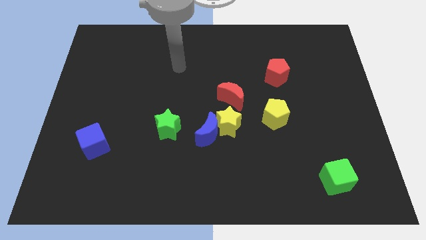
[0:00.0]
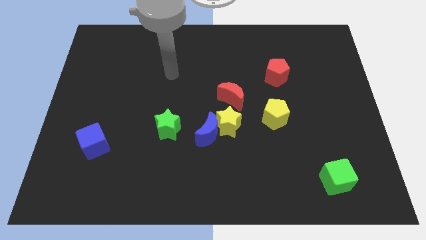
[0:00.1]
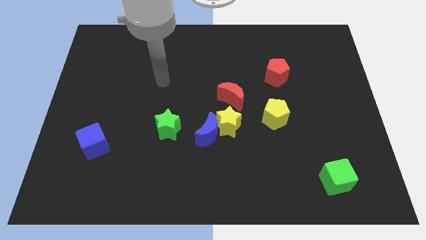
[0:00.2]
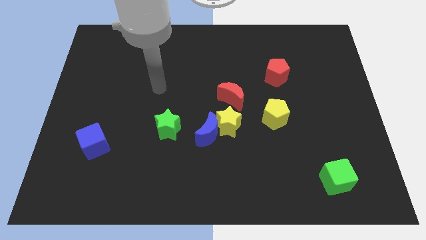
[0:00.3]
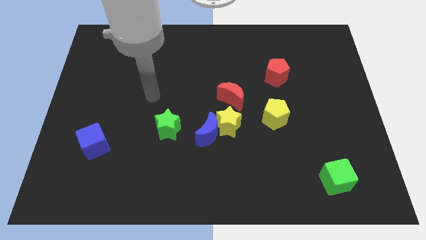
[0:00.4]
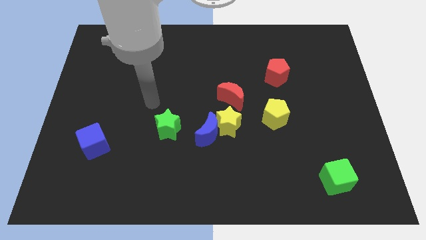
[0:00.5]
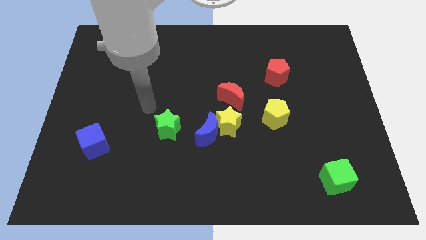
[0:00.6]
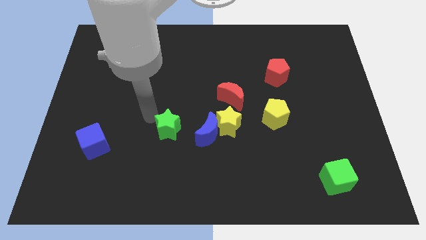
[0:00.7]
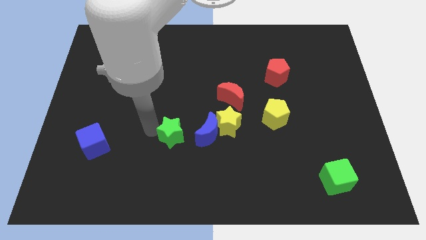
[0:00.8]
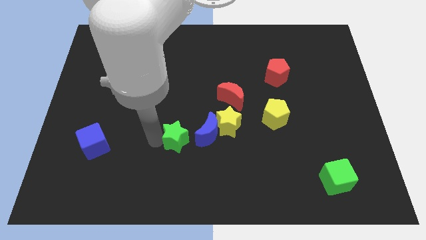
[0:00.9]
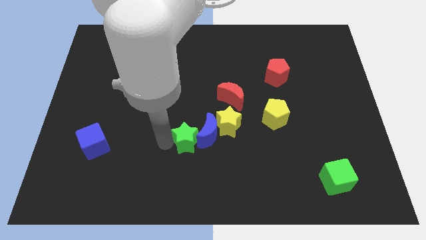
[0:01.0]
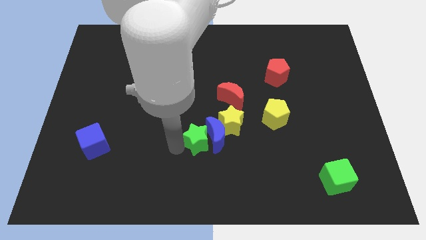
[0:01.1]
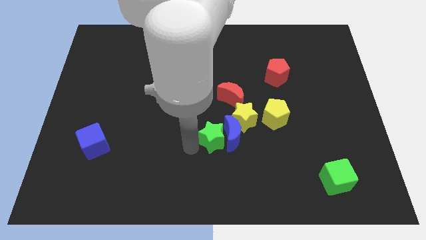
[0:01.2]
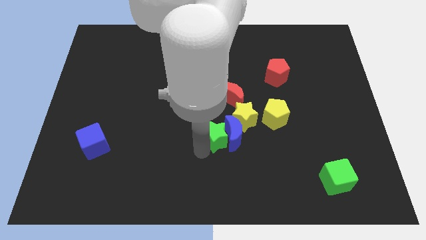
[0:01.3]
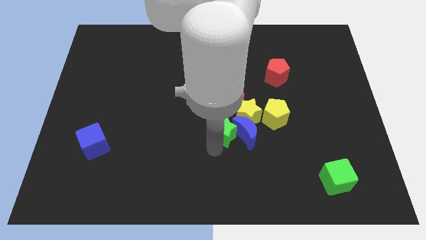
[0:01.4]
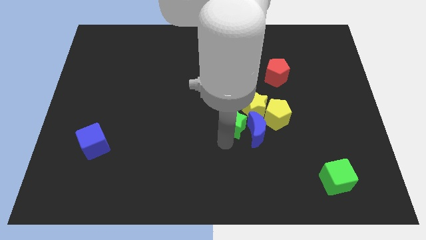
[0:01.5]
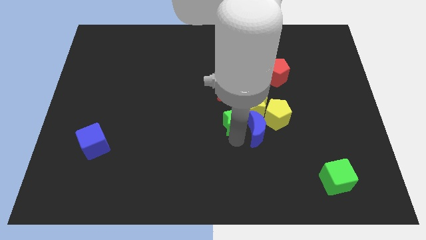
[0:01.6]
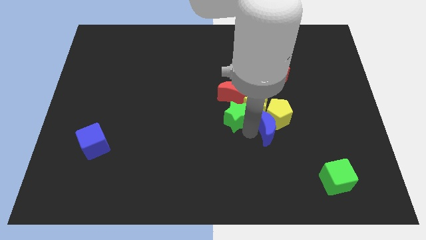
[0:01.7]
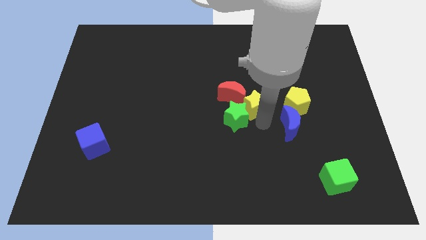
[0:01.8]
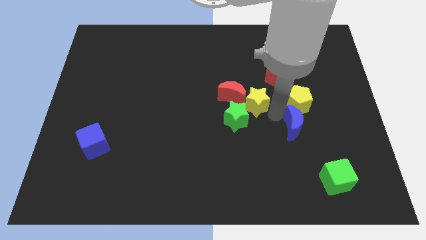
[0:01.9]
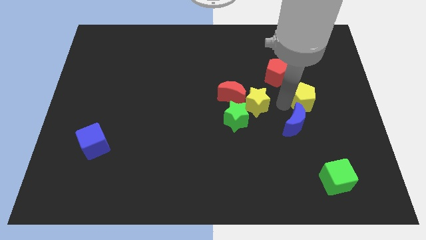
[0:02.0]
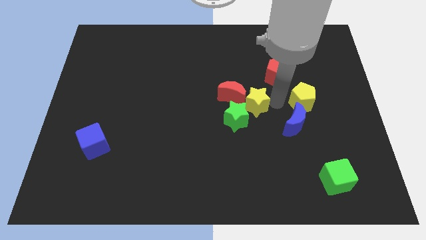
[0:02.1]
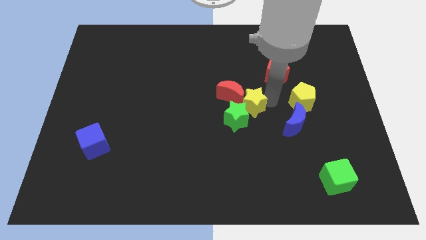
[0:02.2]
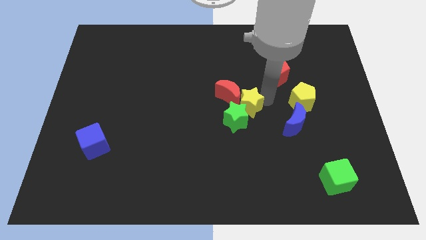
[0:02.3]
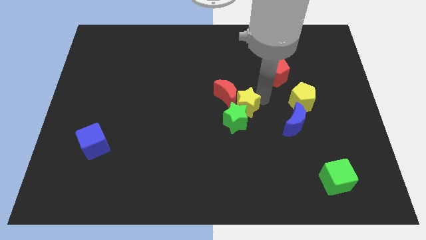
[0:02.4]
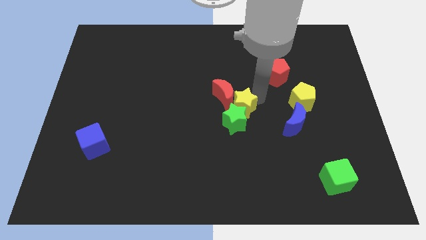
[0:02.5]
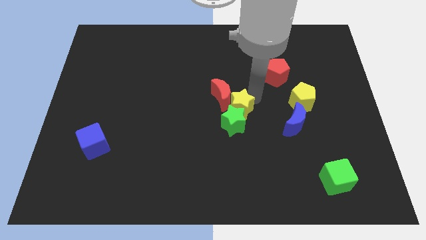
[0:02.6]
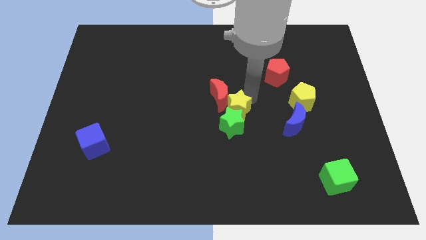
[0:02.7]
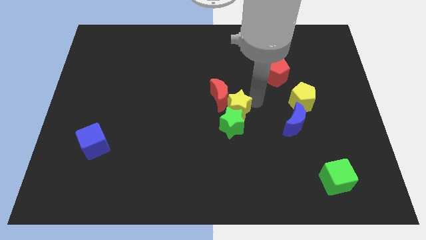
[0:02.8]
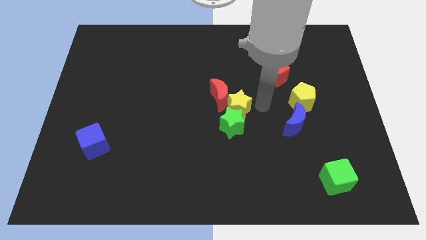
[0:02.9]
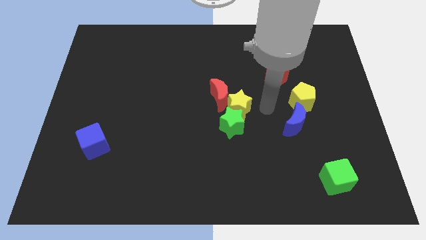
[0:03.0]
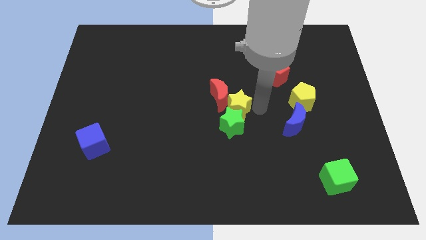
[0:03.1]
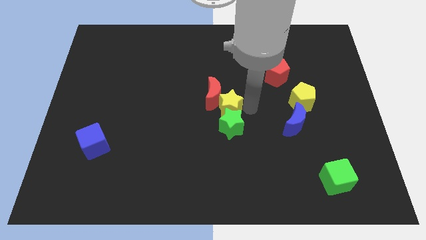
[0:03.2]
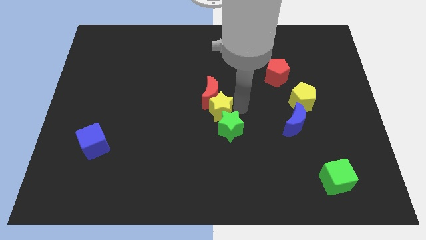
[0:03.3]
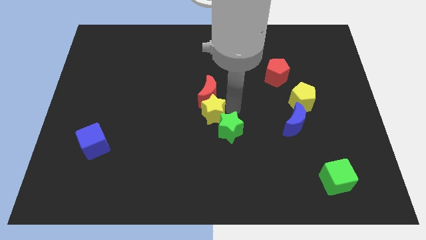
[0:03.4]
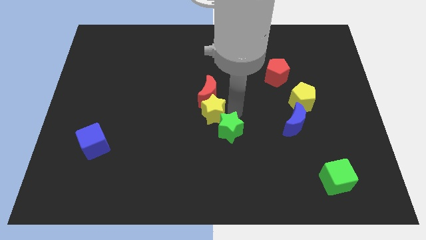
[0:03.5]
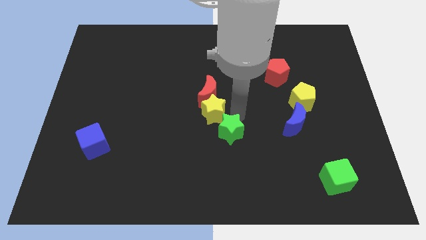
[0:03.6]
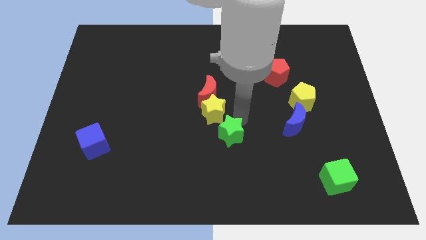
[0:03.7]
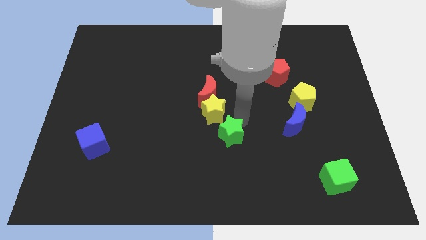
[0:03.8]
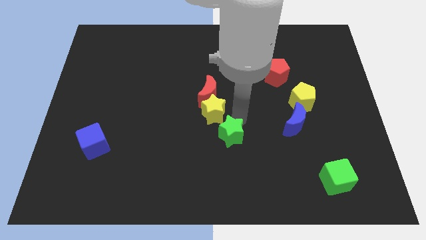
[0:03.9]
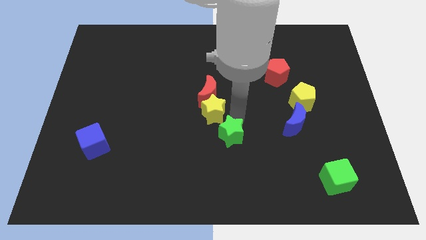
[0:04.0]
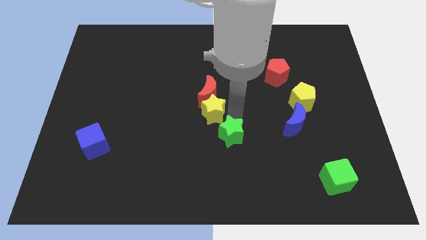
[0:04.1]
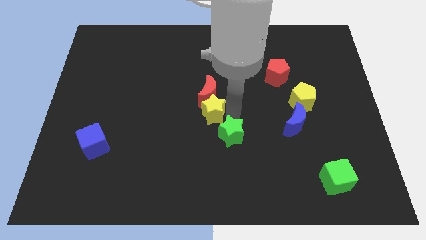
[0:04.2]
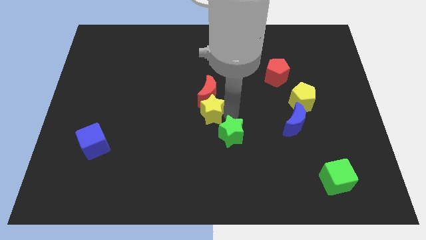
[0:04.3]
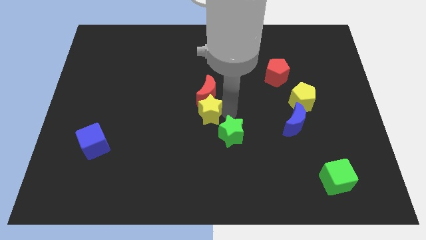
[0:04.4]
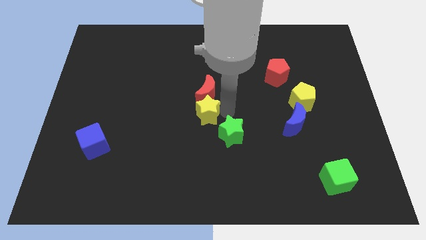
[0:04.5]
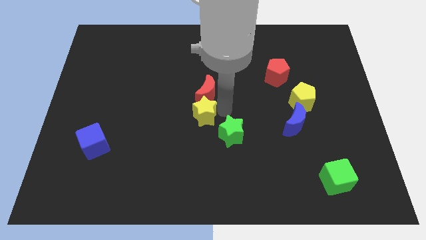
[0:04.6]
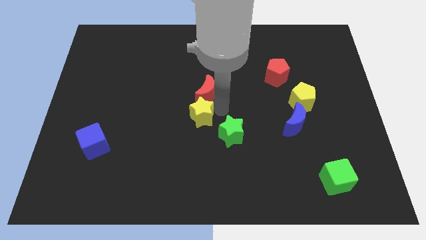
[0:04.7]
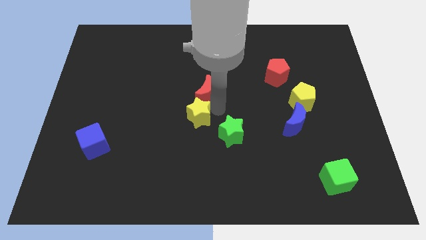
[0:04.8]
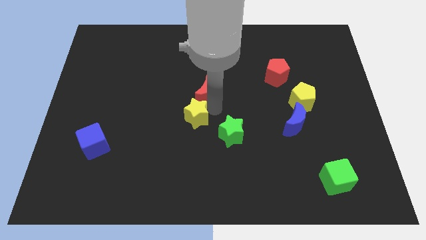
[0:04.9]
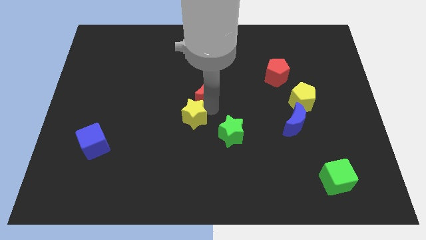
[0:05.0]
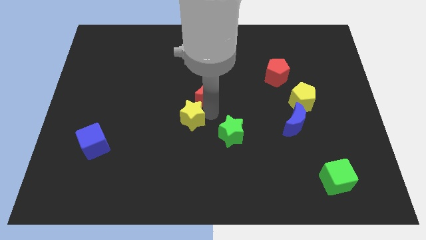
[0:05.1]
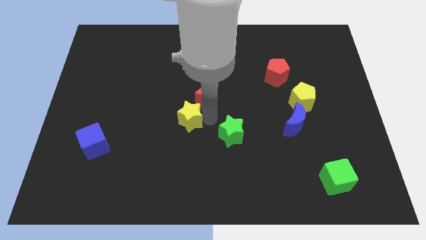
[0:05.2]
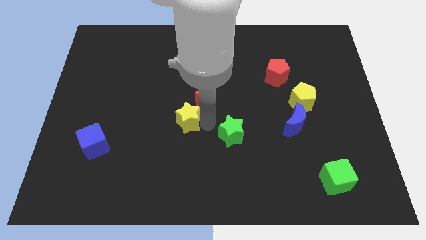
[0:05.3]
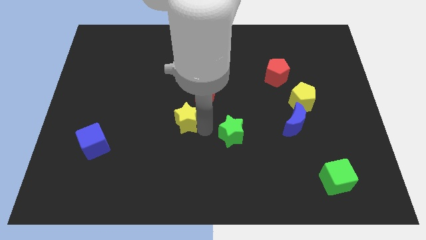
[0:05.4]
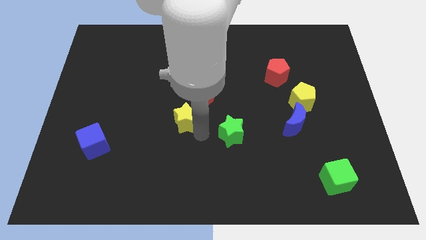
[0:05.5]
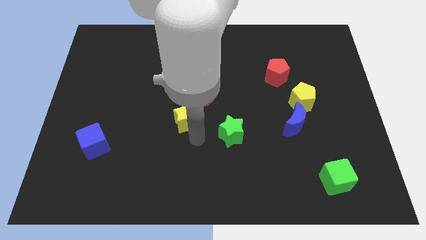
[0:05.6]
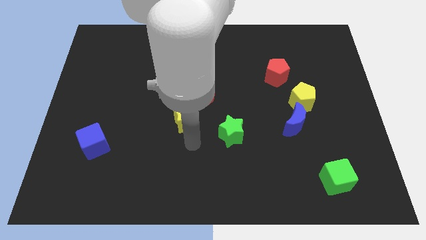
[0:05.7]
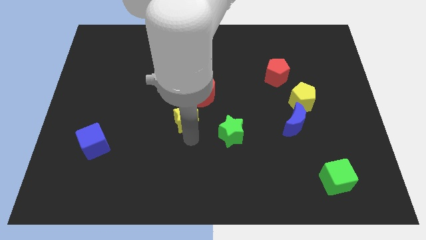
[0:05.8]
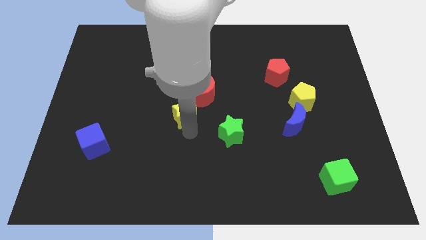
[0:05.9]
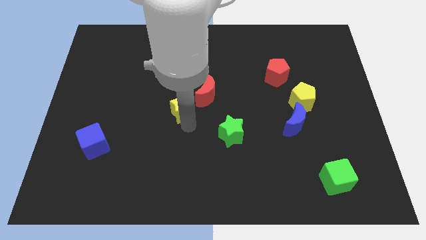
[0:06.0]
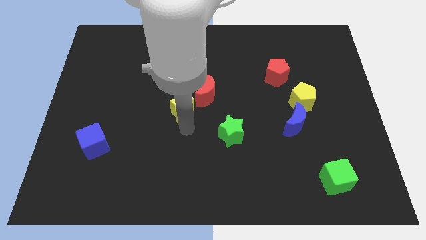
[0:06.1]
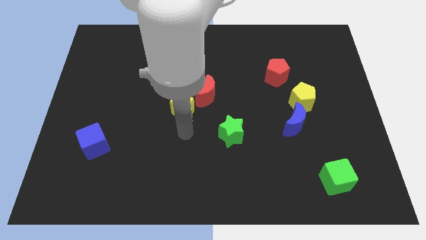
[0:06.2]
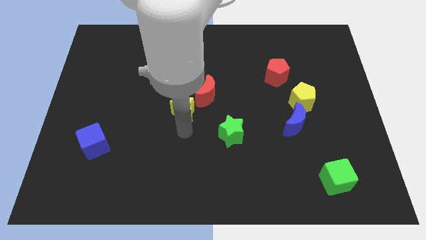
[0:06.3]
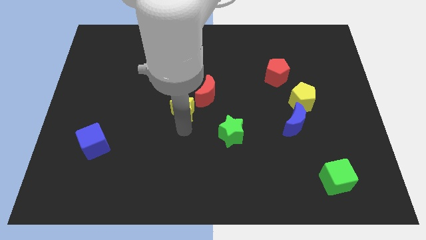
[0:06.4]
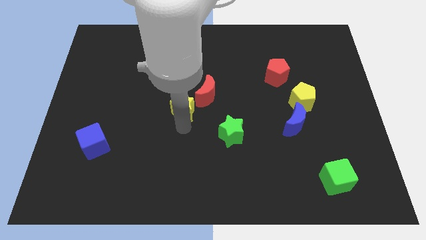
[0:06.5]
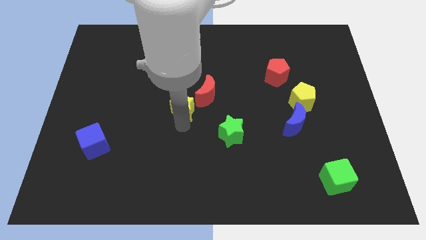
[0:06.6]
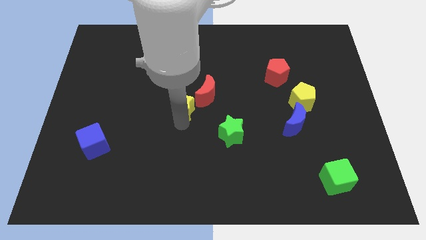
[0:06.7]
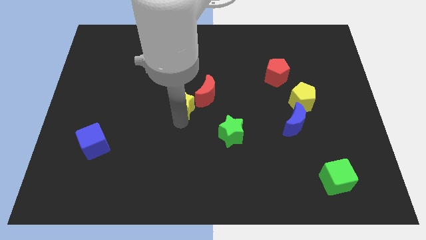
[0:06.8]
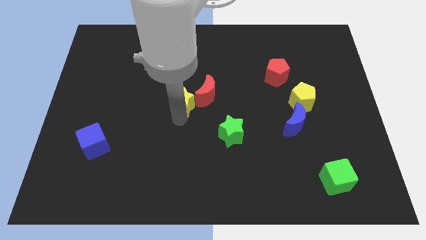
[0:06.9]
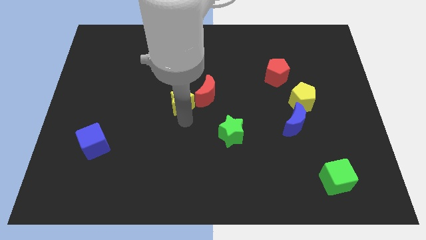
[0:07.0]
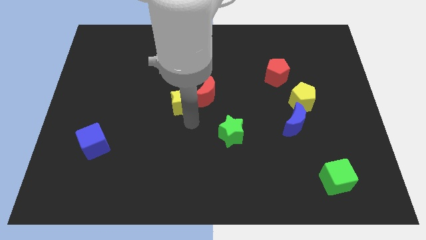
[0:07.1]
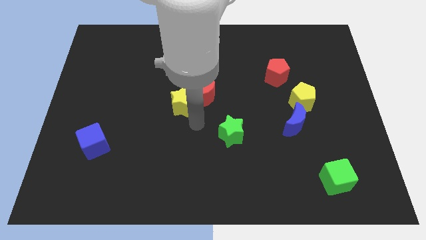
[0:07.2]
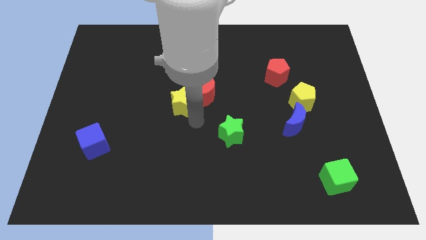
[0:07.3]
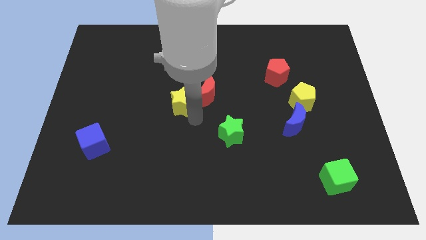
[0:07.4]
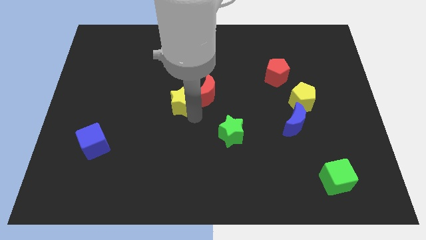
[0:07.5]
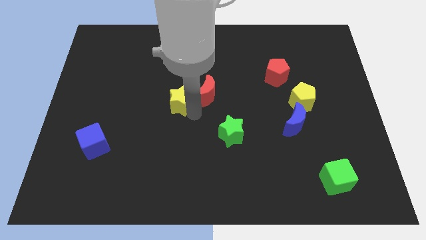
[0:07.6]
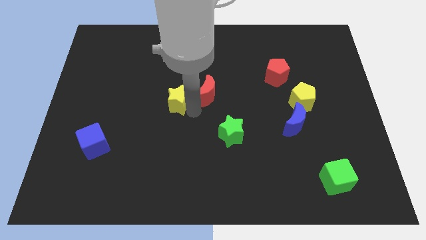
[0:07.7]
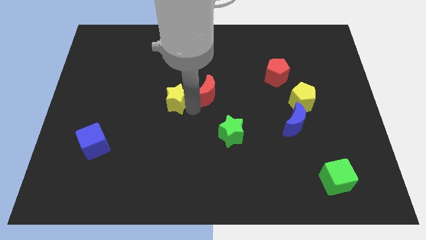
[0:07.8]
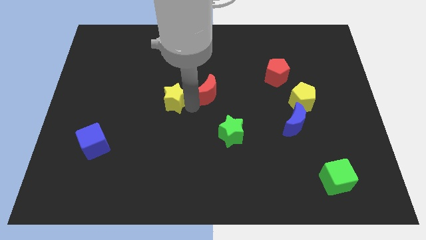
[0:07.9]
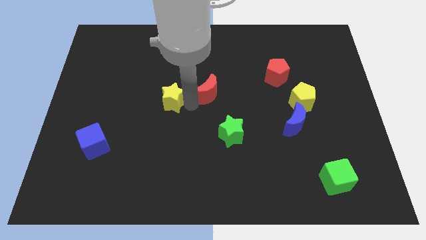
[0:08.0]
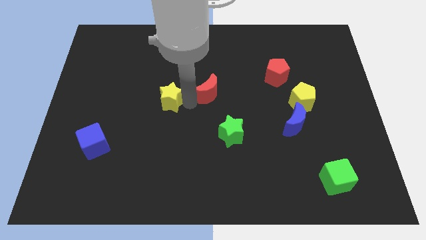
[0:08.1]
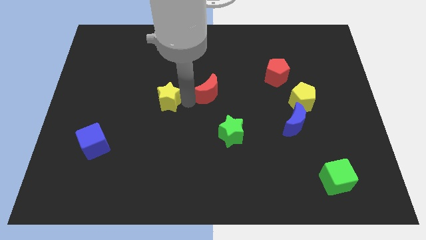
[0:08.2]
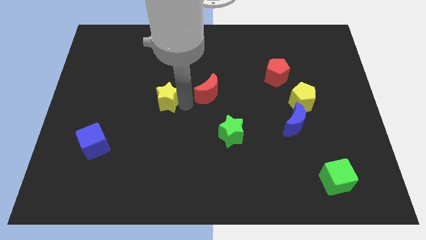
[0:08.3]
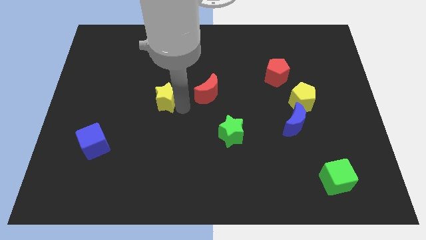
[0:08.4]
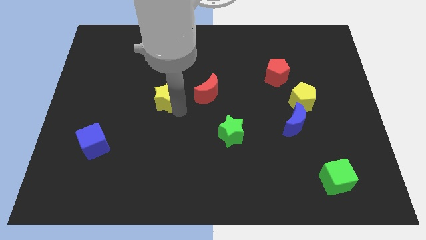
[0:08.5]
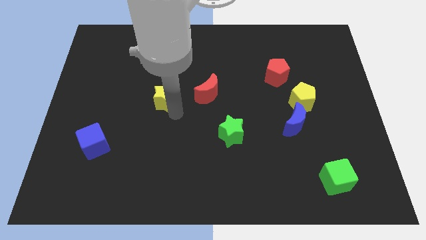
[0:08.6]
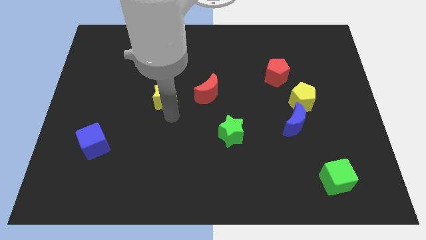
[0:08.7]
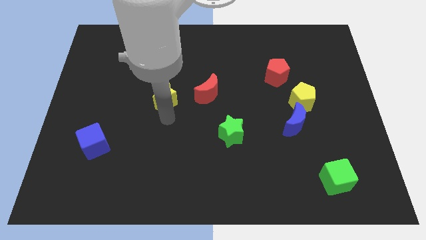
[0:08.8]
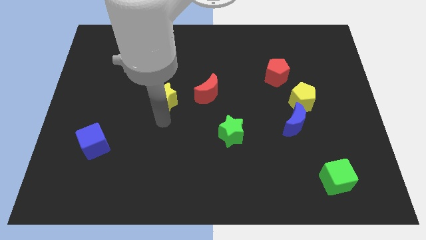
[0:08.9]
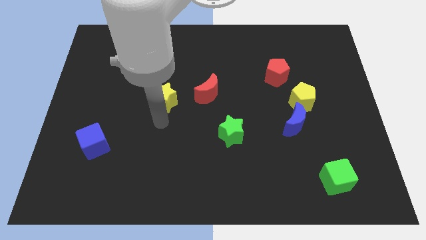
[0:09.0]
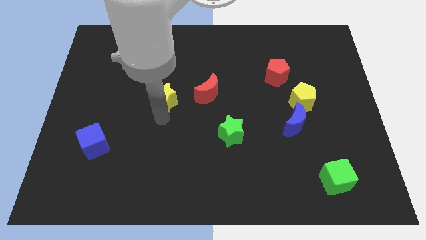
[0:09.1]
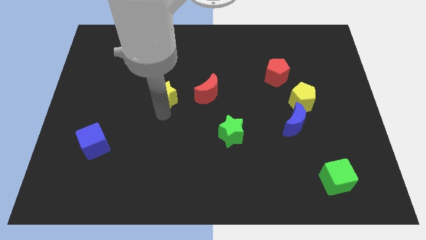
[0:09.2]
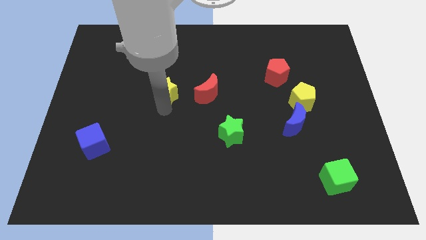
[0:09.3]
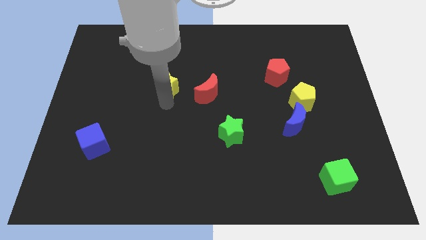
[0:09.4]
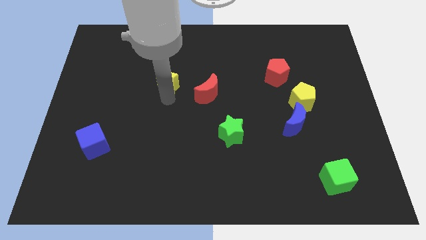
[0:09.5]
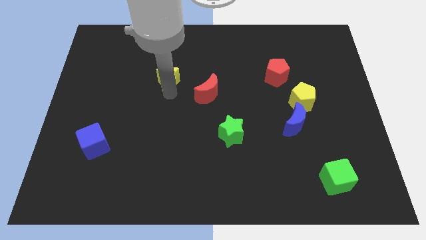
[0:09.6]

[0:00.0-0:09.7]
push the yellow star upwards and then to the left
